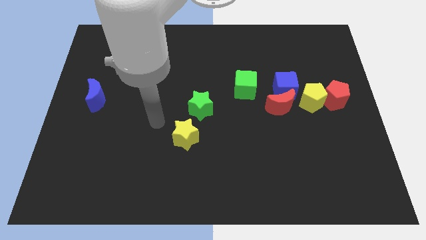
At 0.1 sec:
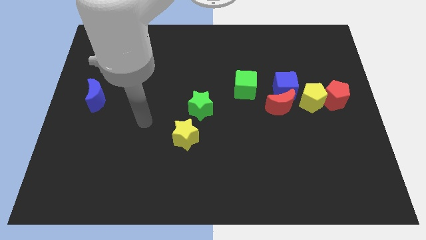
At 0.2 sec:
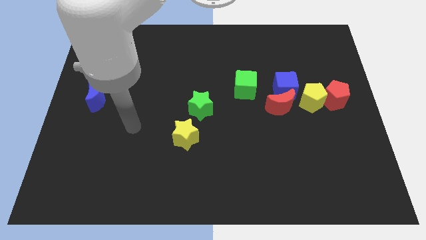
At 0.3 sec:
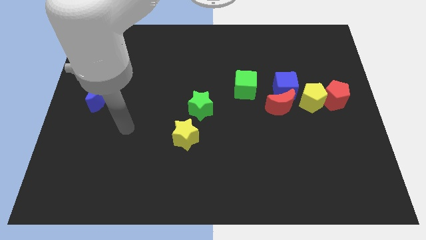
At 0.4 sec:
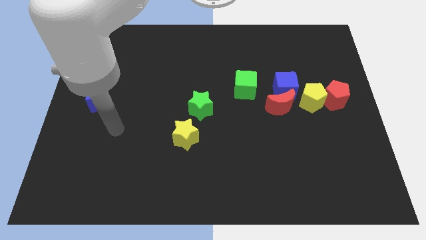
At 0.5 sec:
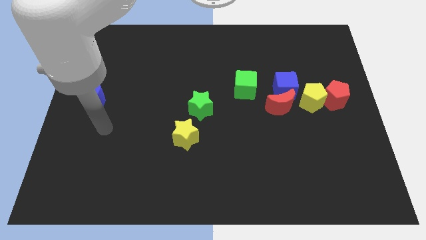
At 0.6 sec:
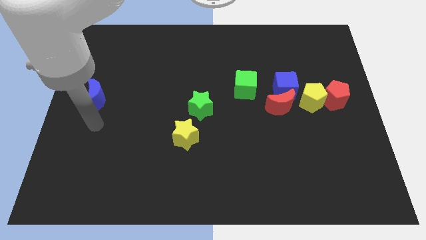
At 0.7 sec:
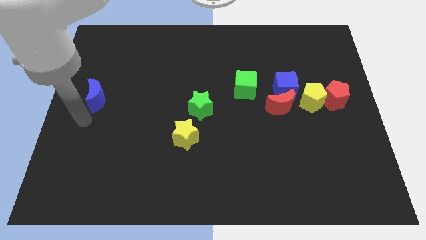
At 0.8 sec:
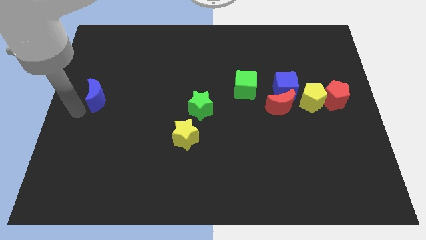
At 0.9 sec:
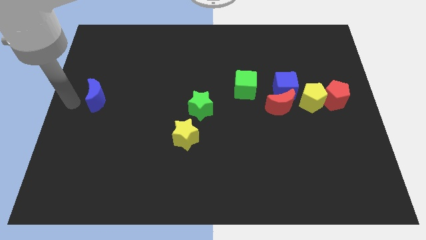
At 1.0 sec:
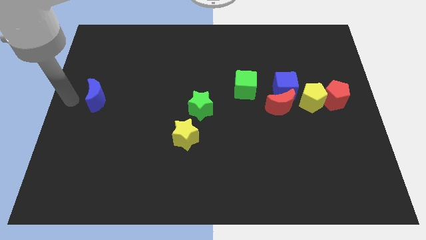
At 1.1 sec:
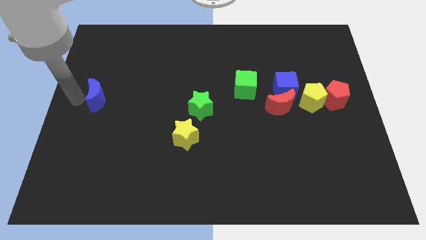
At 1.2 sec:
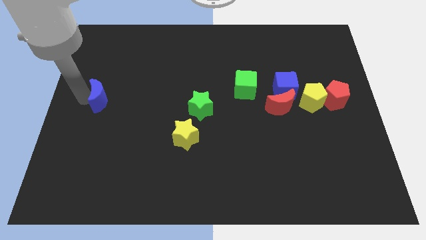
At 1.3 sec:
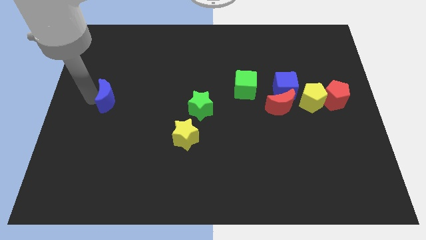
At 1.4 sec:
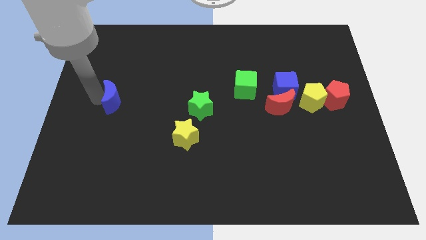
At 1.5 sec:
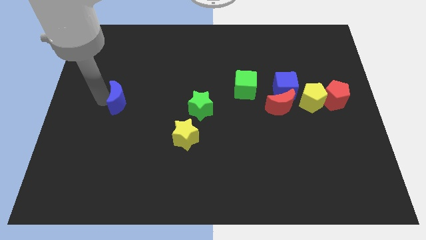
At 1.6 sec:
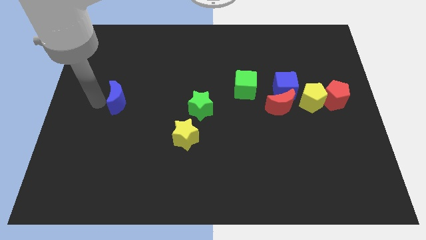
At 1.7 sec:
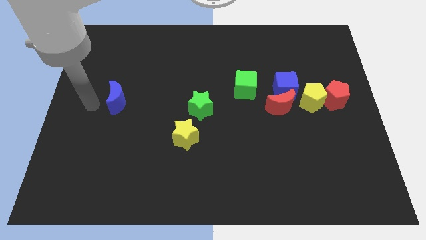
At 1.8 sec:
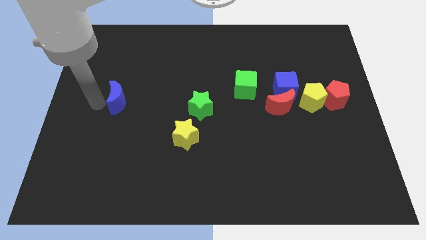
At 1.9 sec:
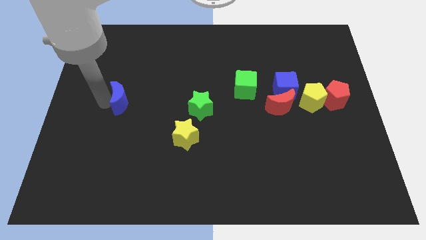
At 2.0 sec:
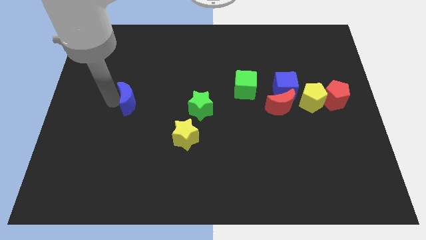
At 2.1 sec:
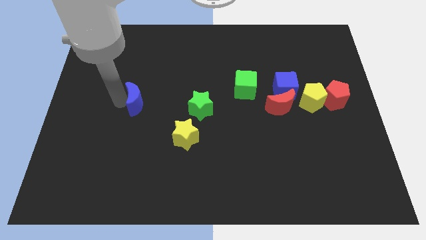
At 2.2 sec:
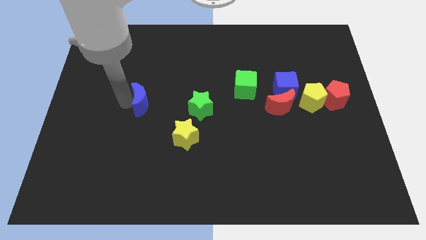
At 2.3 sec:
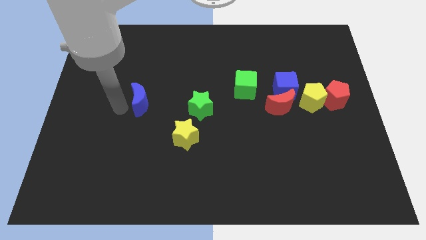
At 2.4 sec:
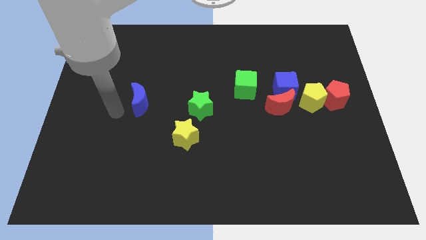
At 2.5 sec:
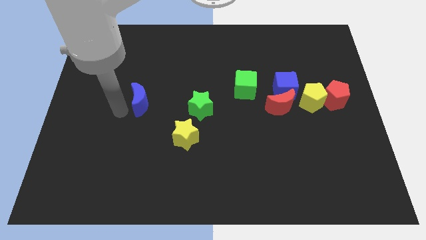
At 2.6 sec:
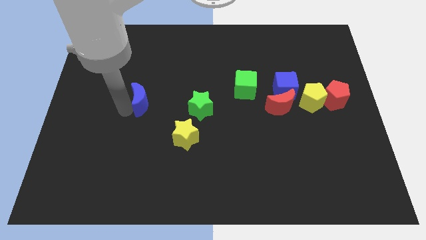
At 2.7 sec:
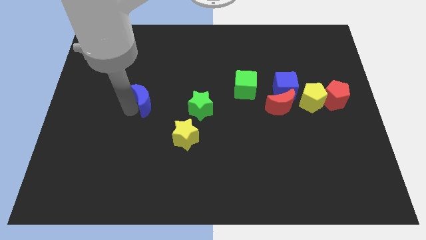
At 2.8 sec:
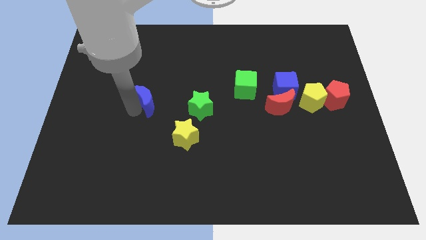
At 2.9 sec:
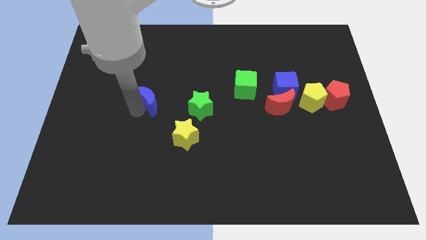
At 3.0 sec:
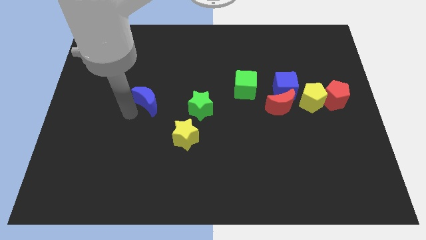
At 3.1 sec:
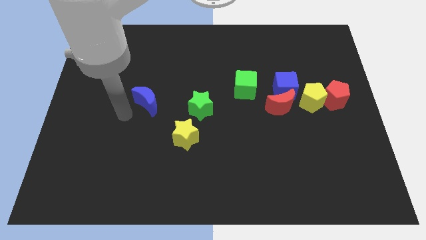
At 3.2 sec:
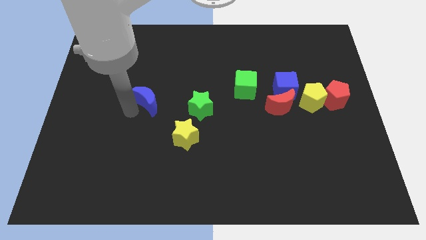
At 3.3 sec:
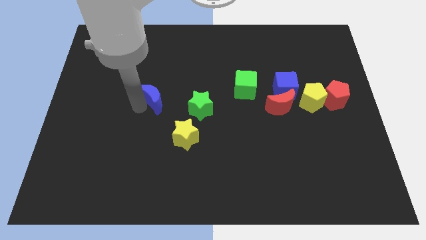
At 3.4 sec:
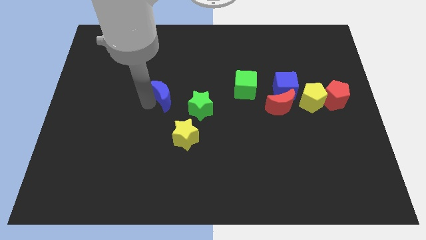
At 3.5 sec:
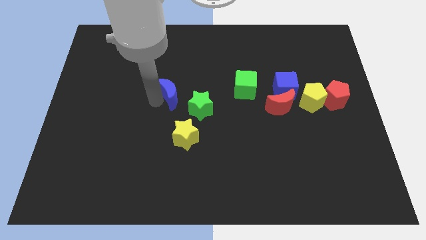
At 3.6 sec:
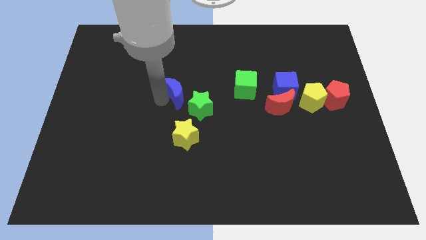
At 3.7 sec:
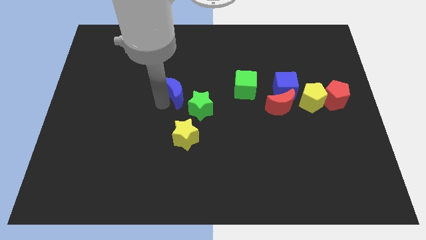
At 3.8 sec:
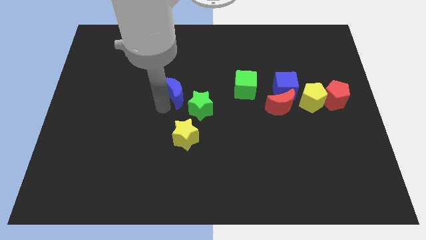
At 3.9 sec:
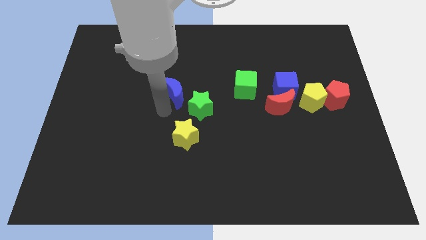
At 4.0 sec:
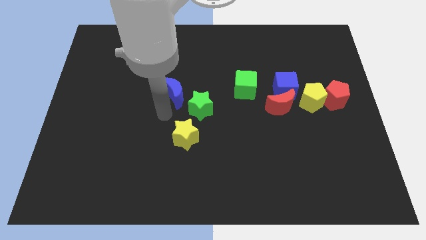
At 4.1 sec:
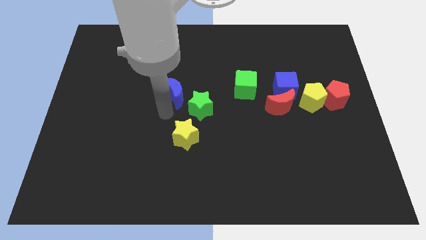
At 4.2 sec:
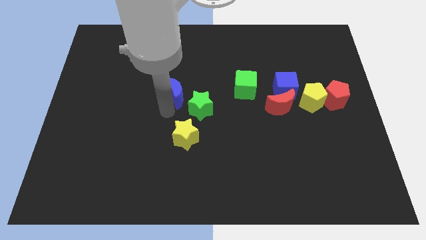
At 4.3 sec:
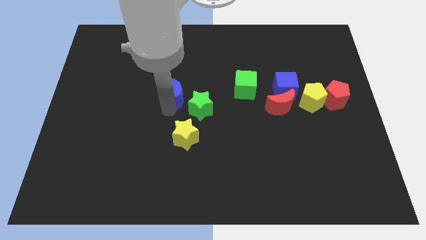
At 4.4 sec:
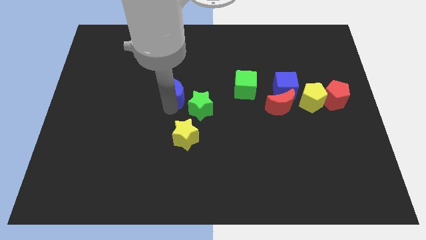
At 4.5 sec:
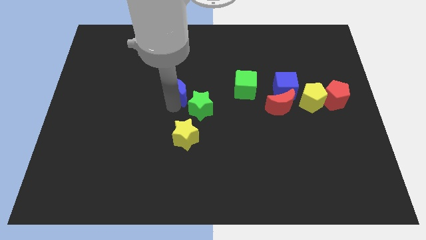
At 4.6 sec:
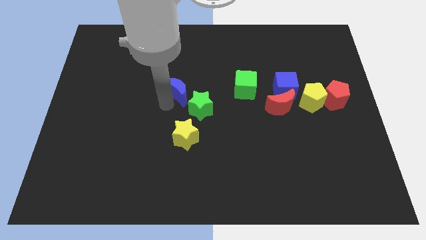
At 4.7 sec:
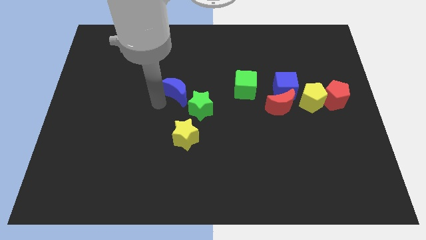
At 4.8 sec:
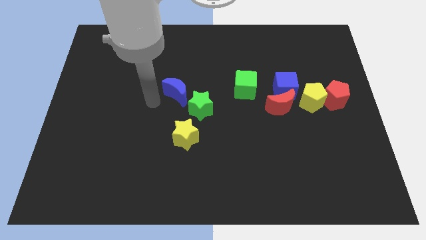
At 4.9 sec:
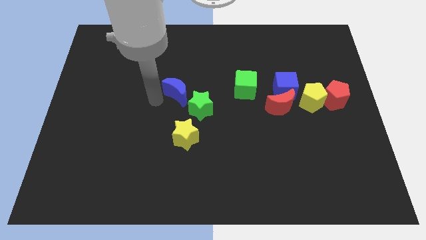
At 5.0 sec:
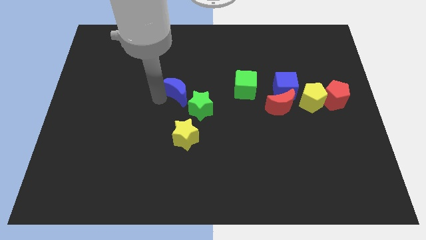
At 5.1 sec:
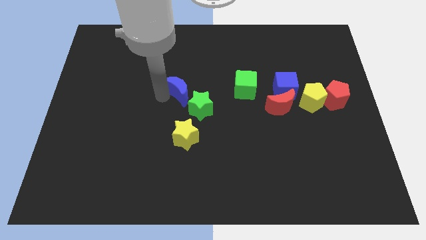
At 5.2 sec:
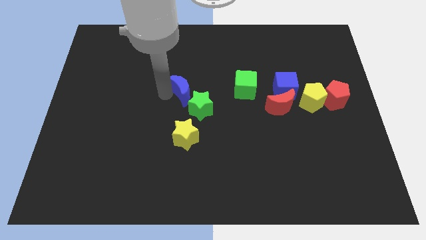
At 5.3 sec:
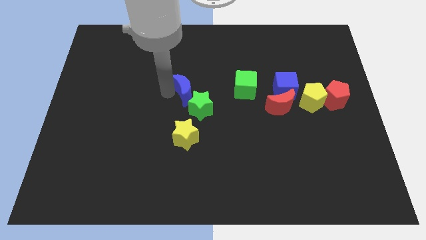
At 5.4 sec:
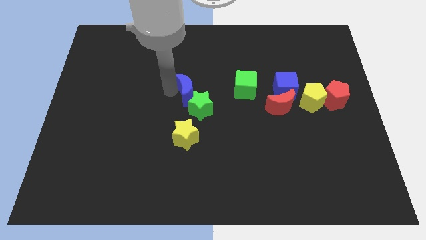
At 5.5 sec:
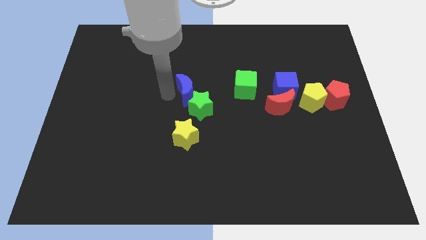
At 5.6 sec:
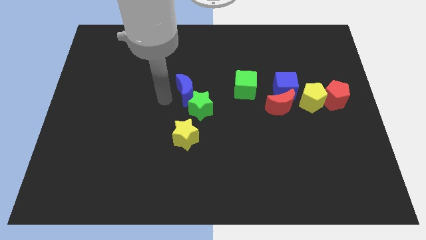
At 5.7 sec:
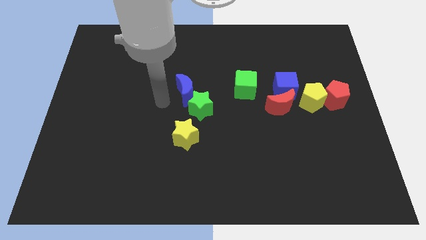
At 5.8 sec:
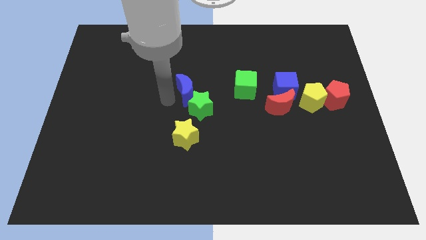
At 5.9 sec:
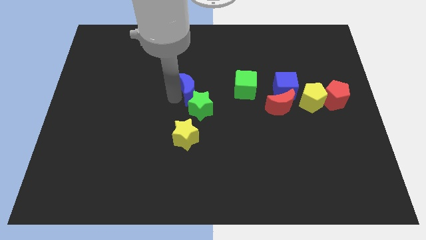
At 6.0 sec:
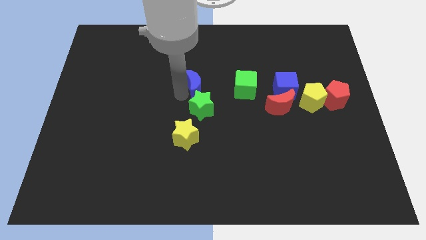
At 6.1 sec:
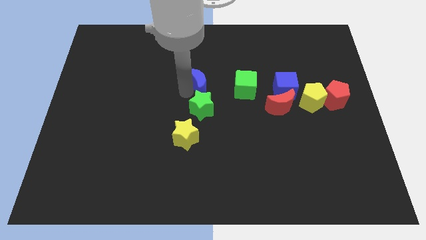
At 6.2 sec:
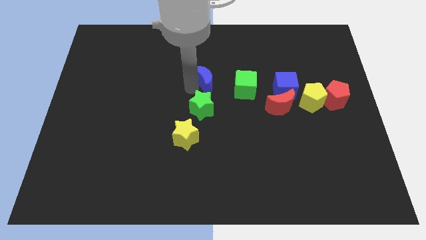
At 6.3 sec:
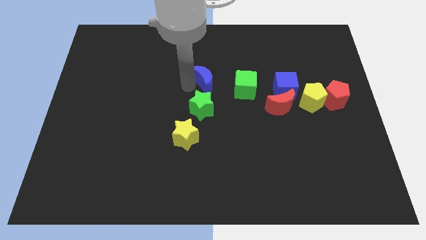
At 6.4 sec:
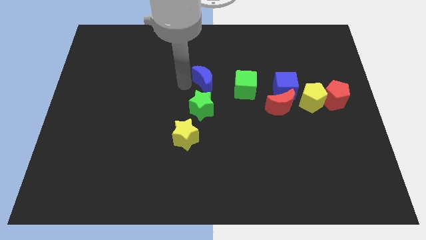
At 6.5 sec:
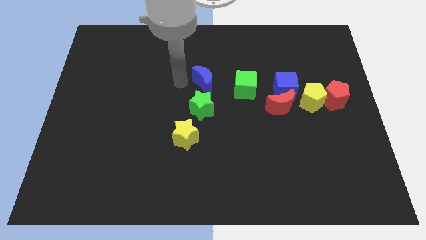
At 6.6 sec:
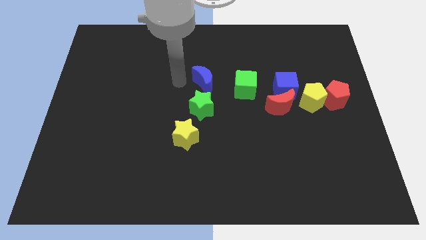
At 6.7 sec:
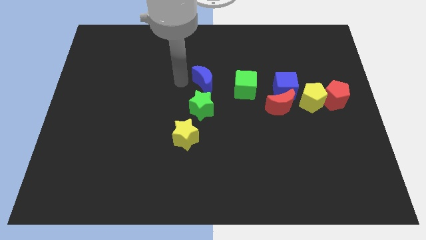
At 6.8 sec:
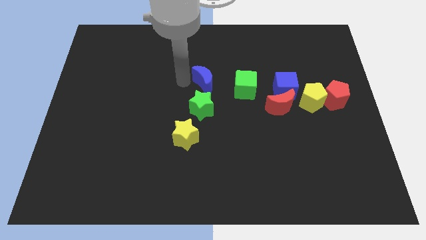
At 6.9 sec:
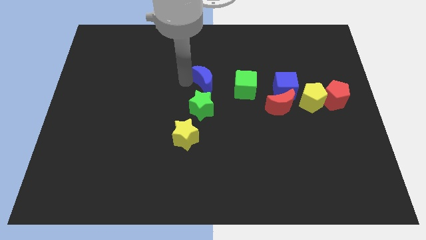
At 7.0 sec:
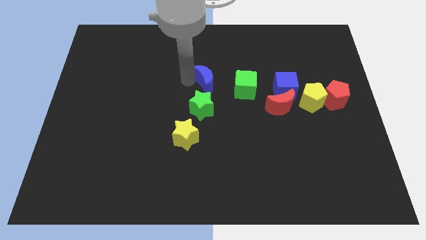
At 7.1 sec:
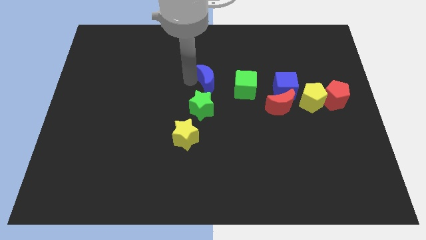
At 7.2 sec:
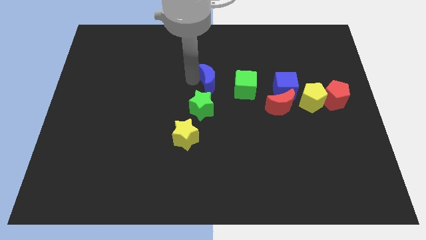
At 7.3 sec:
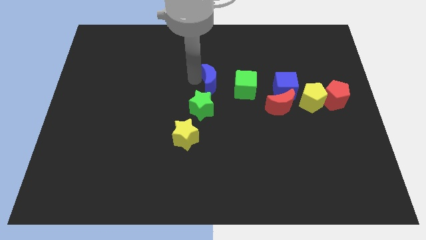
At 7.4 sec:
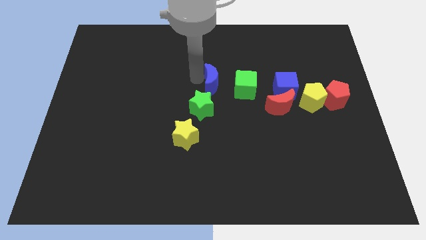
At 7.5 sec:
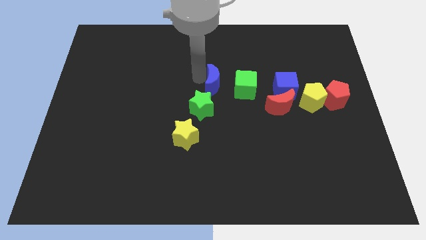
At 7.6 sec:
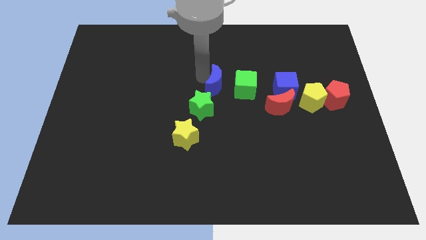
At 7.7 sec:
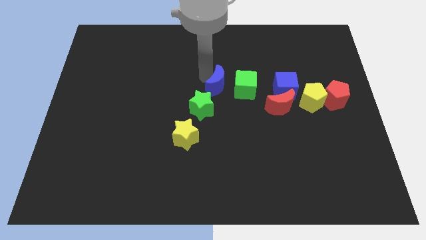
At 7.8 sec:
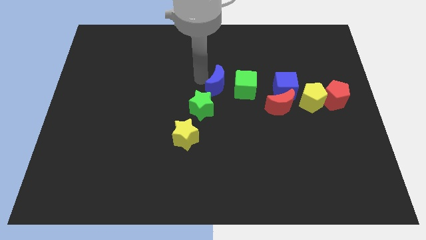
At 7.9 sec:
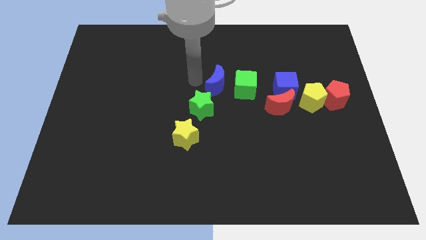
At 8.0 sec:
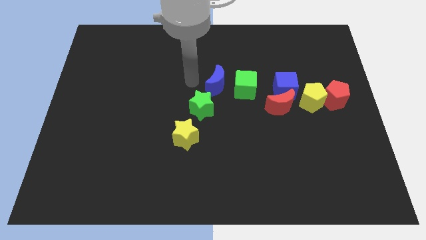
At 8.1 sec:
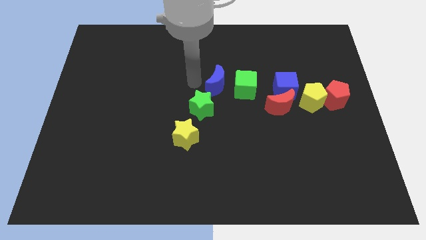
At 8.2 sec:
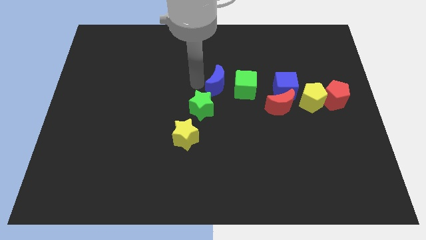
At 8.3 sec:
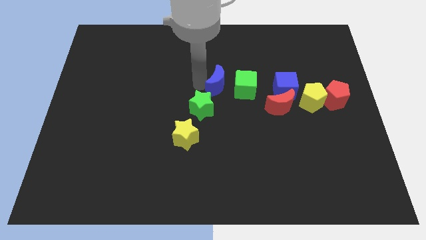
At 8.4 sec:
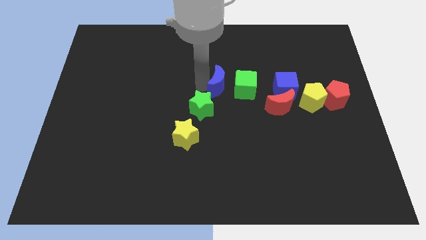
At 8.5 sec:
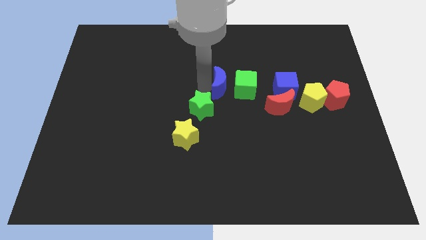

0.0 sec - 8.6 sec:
put the blue moon to the green cube
